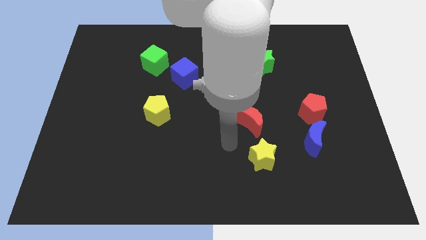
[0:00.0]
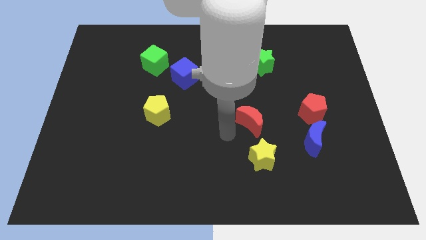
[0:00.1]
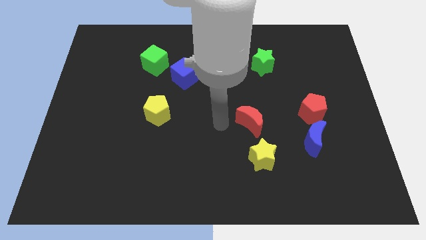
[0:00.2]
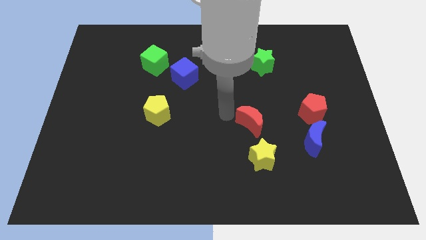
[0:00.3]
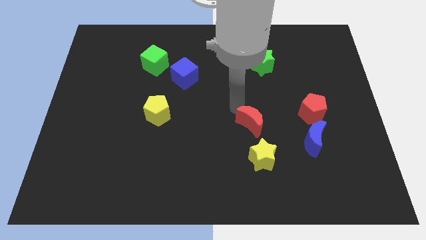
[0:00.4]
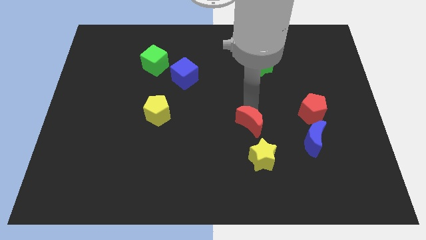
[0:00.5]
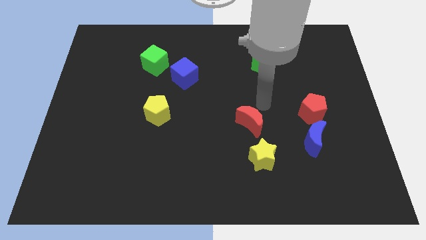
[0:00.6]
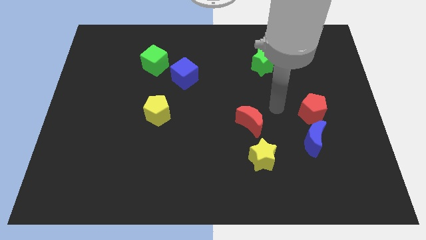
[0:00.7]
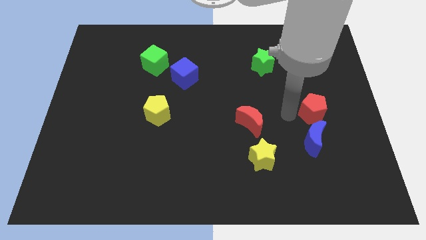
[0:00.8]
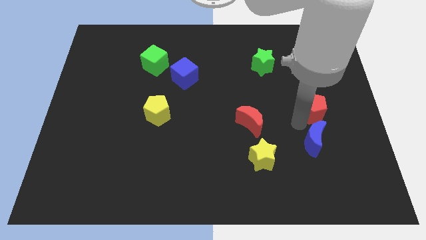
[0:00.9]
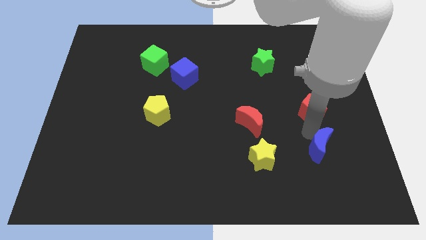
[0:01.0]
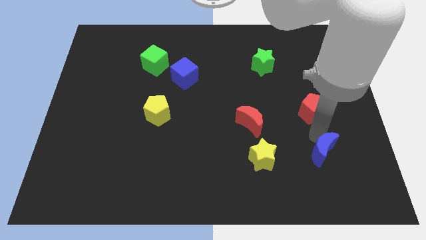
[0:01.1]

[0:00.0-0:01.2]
move the red pentagon away from the blue moon

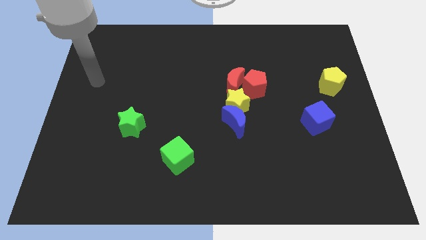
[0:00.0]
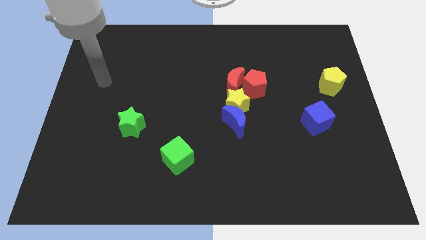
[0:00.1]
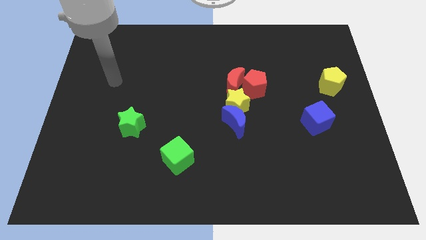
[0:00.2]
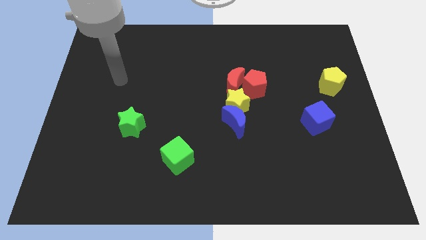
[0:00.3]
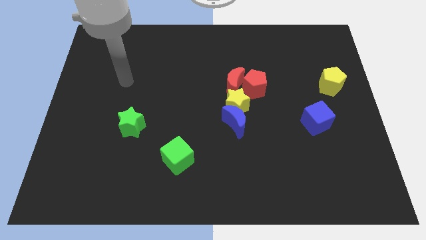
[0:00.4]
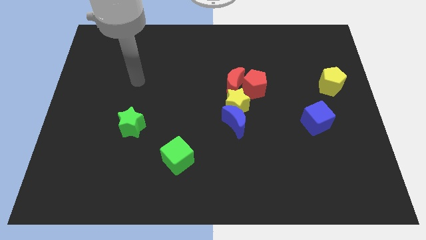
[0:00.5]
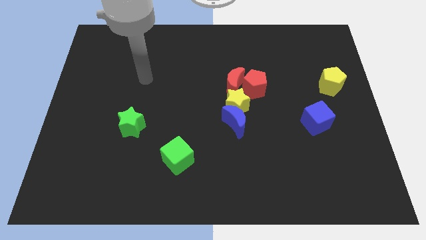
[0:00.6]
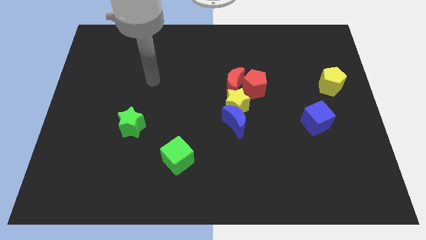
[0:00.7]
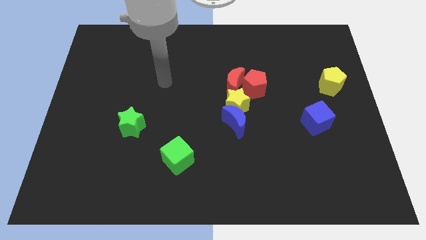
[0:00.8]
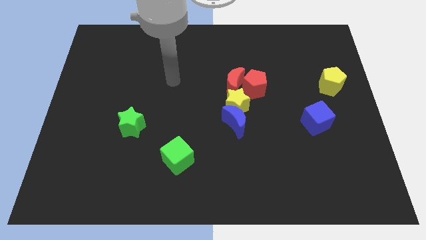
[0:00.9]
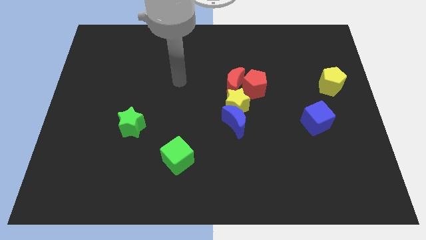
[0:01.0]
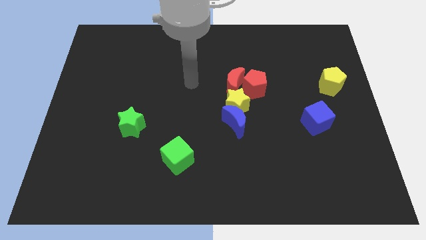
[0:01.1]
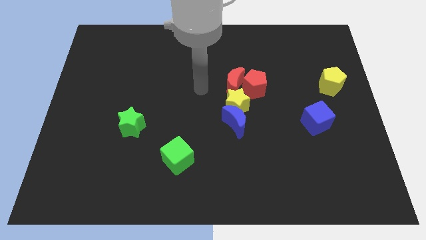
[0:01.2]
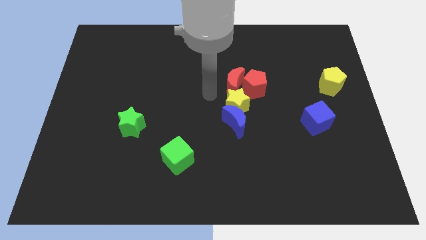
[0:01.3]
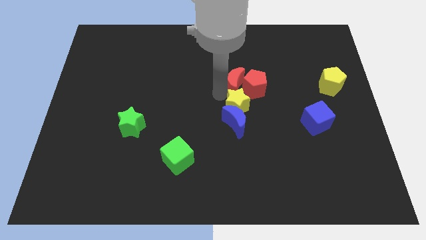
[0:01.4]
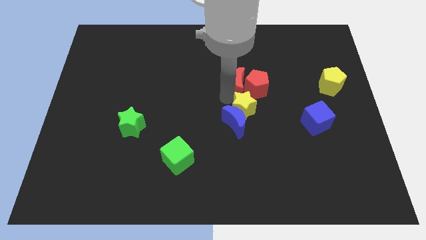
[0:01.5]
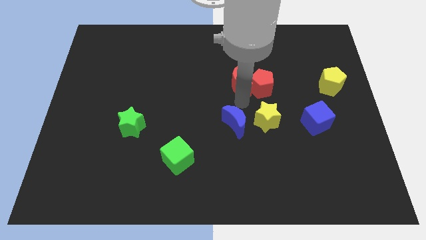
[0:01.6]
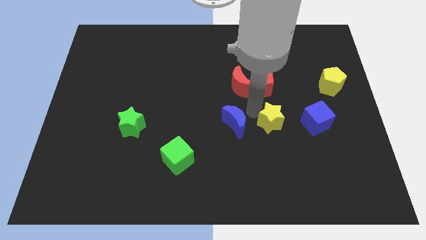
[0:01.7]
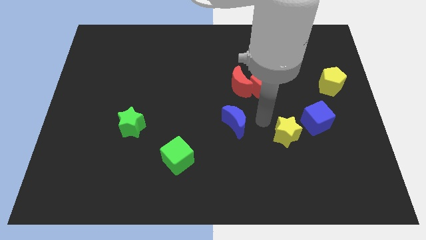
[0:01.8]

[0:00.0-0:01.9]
separate the blue moon from the yellow star

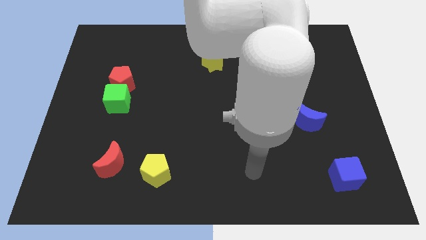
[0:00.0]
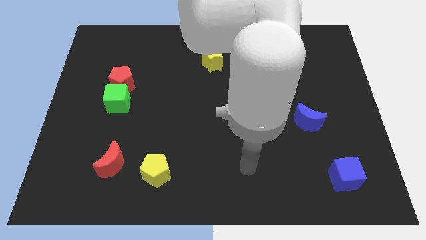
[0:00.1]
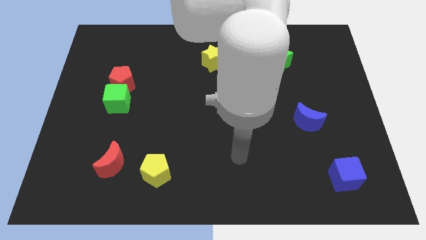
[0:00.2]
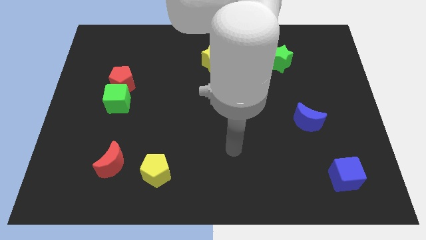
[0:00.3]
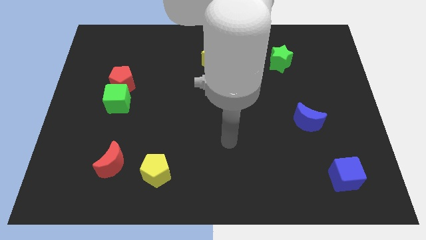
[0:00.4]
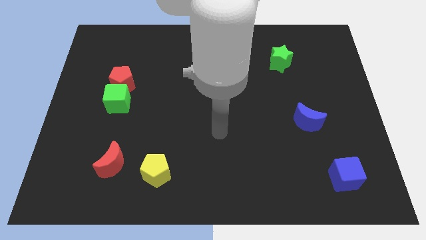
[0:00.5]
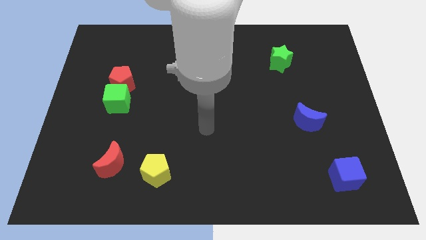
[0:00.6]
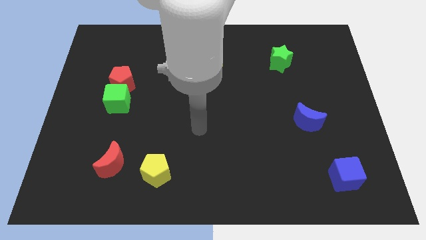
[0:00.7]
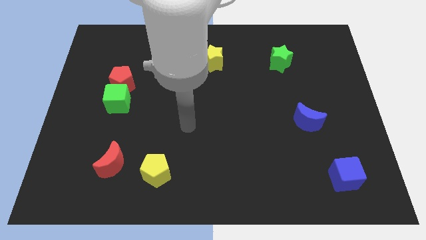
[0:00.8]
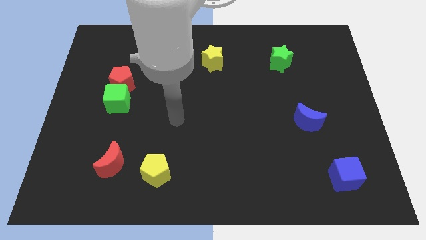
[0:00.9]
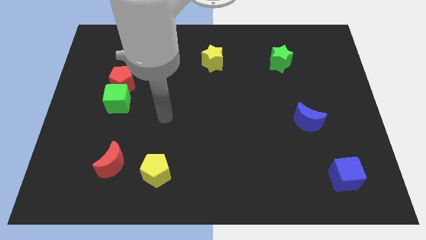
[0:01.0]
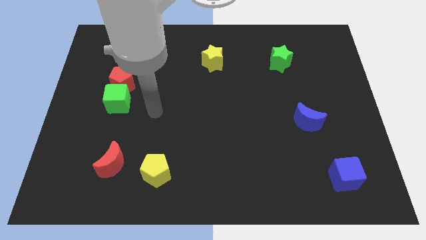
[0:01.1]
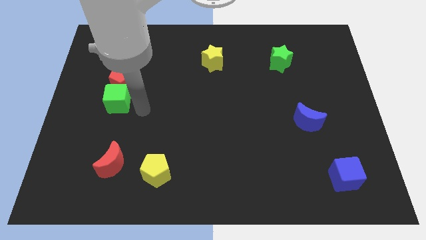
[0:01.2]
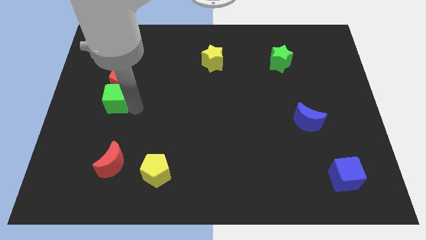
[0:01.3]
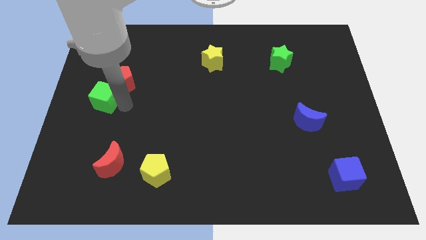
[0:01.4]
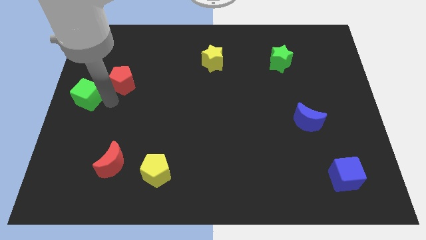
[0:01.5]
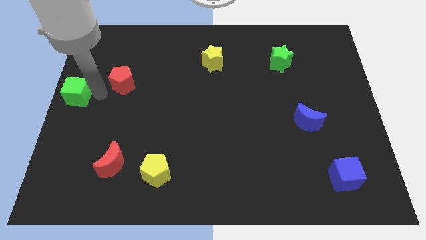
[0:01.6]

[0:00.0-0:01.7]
move the red pentagon away from the green cube

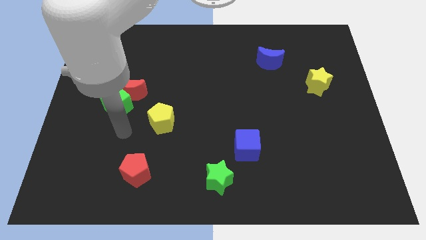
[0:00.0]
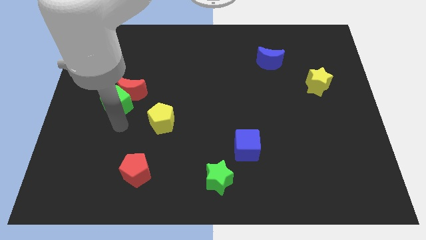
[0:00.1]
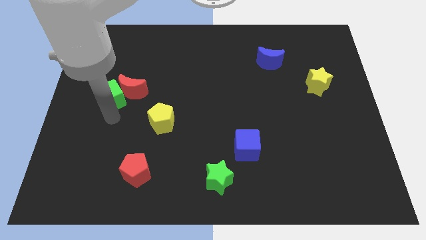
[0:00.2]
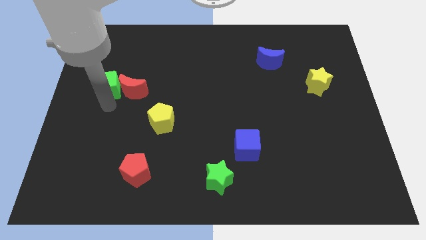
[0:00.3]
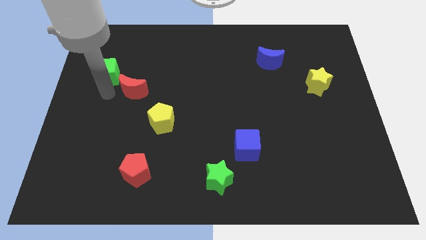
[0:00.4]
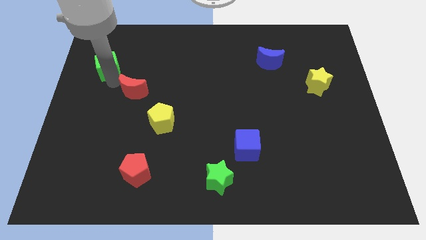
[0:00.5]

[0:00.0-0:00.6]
move the red moon away from the green cube

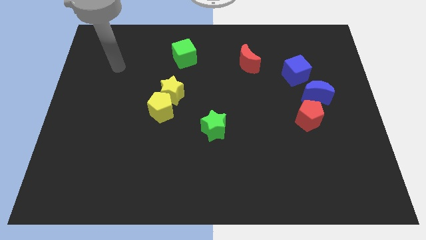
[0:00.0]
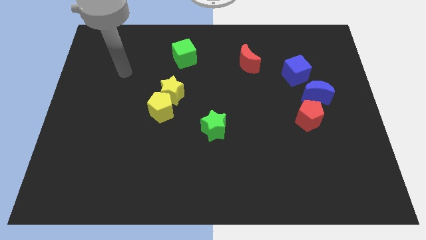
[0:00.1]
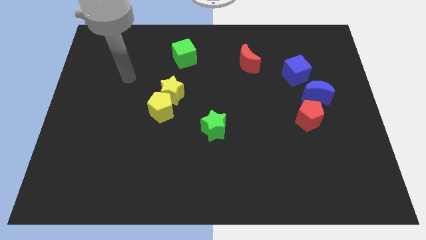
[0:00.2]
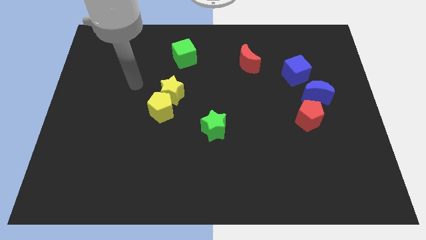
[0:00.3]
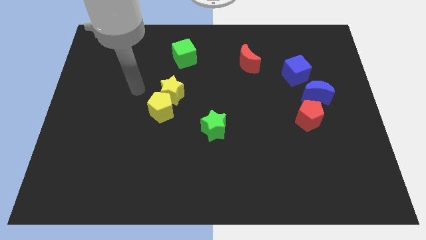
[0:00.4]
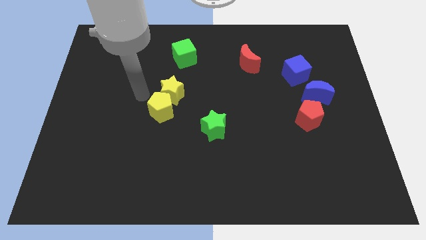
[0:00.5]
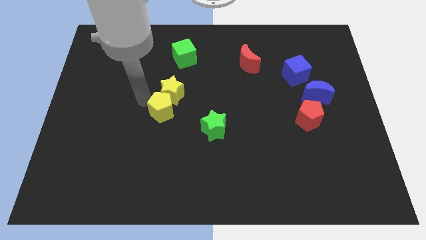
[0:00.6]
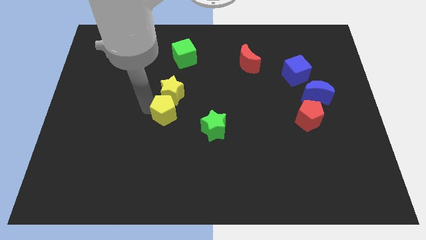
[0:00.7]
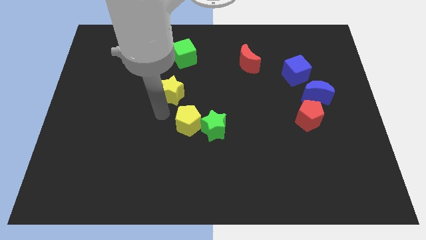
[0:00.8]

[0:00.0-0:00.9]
move the yellow star away from the yellow pentagon

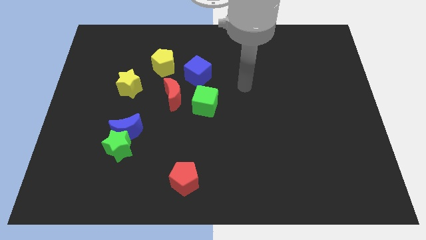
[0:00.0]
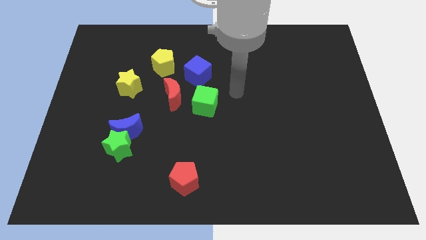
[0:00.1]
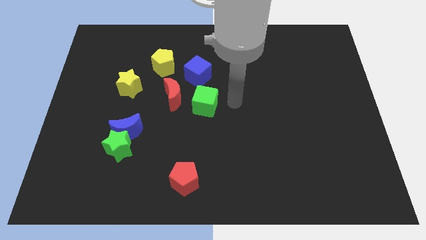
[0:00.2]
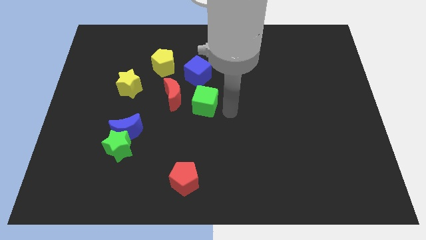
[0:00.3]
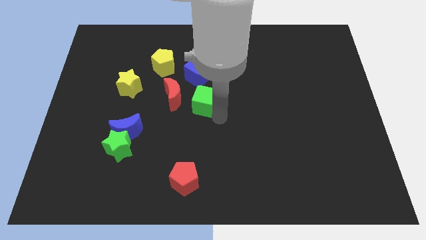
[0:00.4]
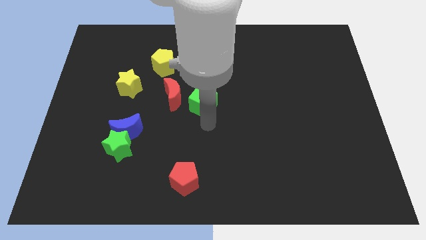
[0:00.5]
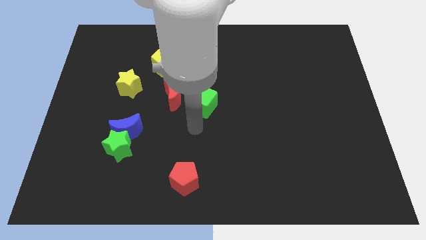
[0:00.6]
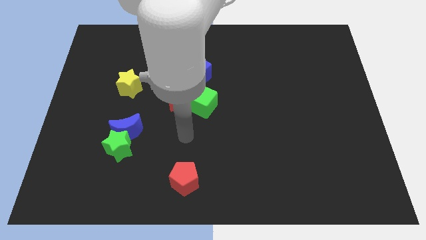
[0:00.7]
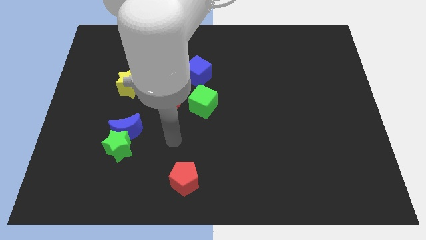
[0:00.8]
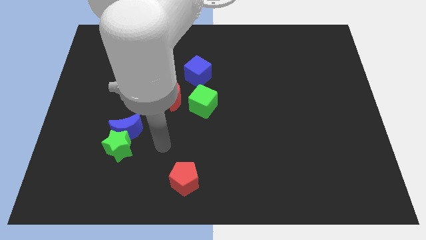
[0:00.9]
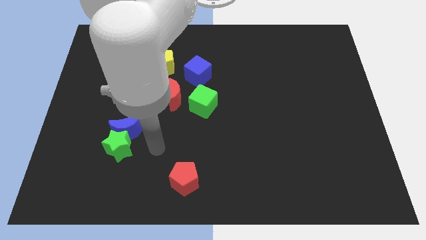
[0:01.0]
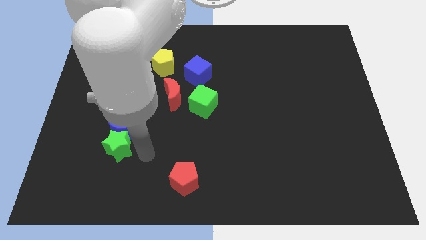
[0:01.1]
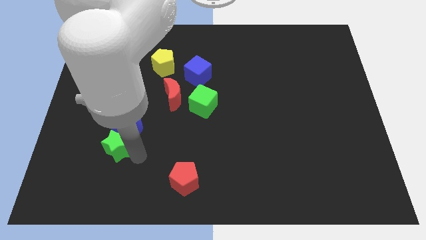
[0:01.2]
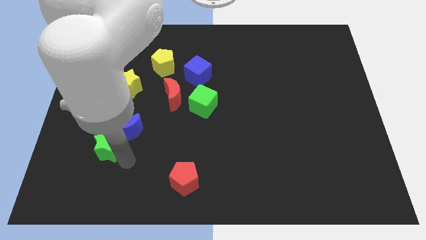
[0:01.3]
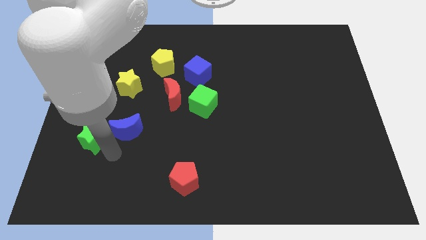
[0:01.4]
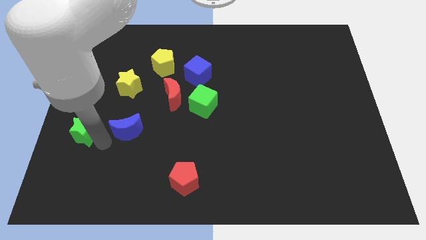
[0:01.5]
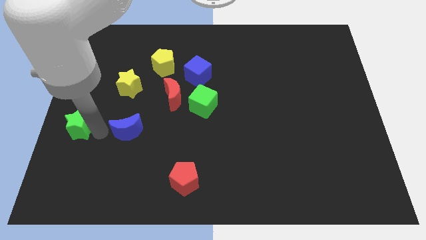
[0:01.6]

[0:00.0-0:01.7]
separate the blue moon from the green star

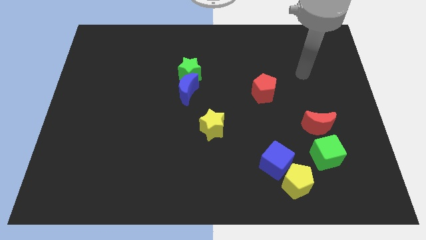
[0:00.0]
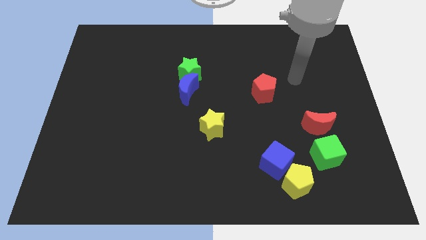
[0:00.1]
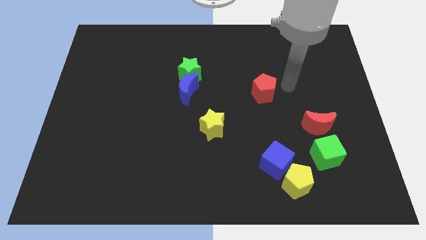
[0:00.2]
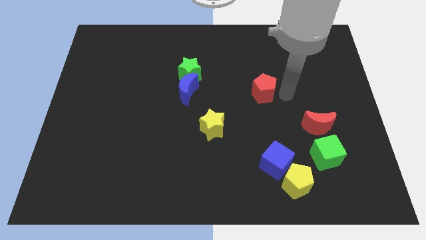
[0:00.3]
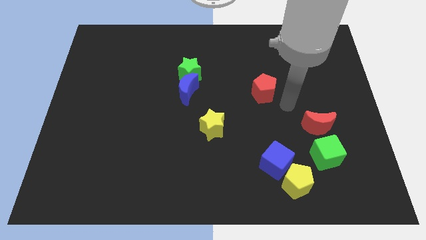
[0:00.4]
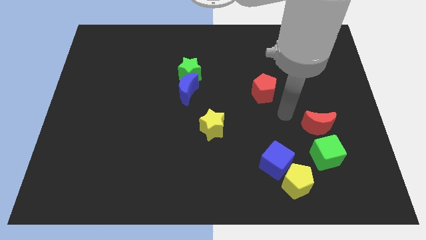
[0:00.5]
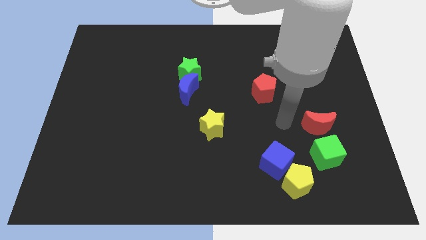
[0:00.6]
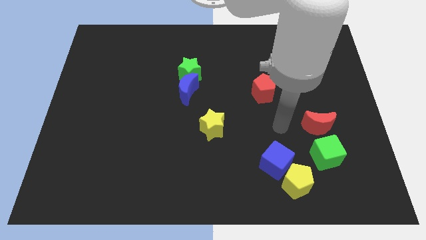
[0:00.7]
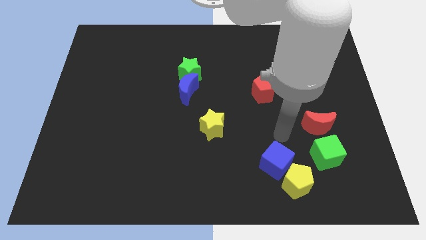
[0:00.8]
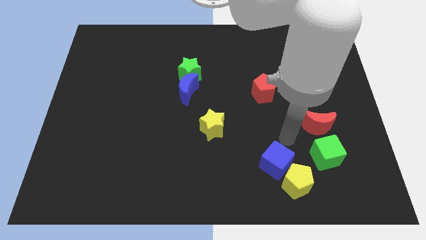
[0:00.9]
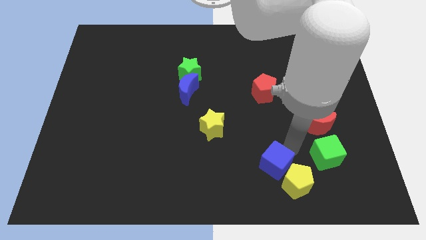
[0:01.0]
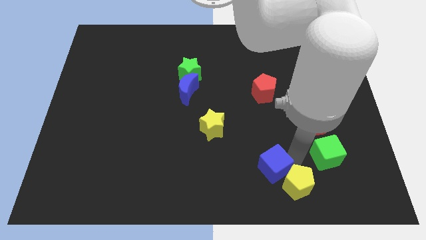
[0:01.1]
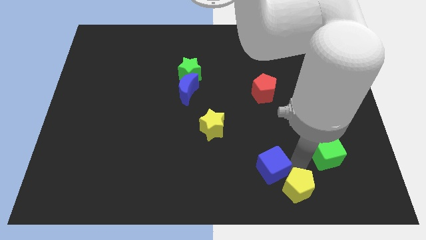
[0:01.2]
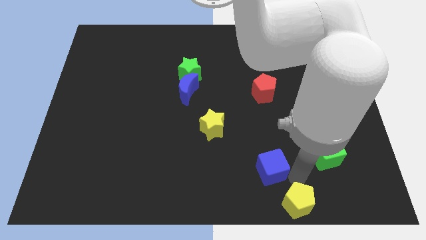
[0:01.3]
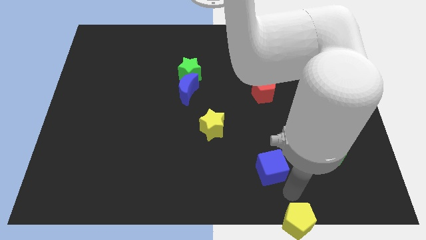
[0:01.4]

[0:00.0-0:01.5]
pull the blue cube apart from the yellow pentagon
